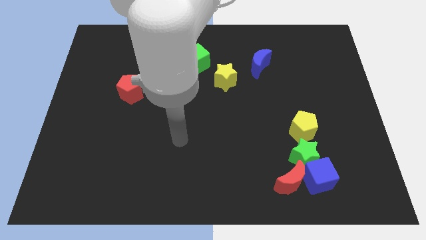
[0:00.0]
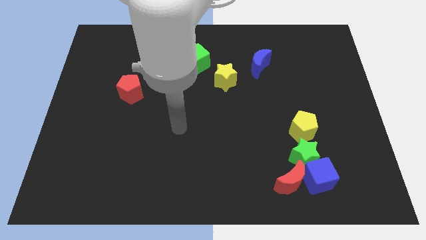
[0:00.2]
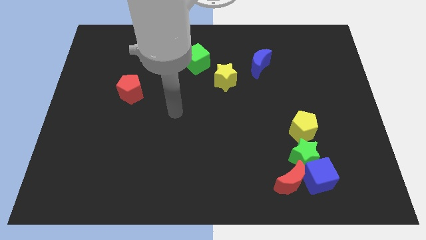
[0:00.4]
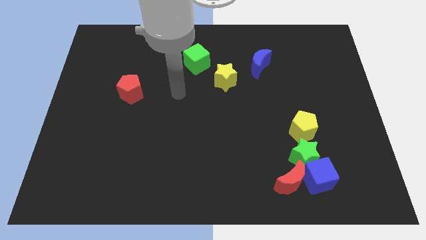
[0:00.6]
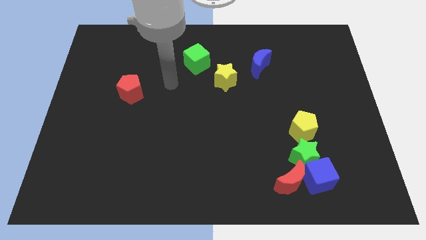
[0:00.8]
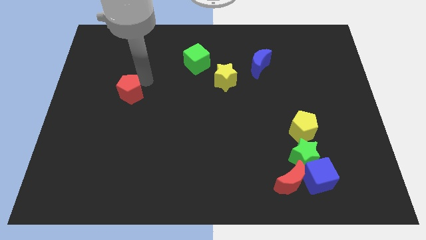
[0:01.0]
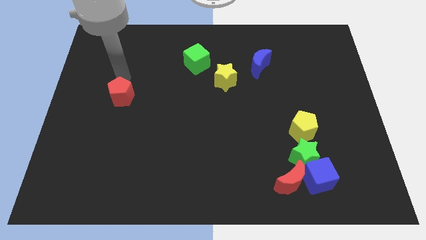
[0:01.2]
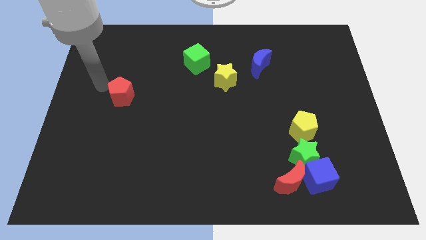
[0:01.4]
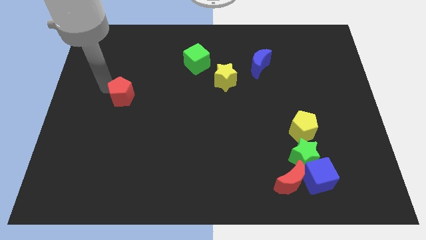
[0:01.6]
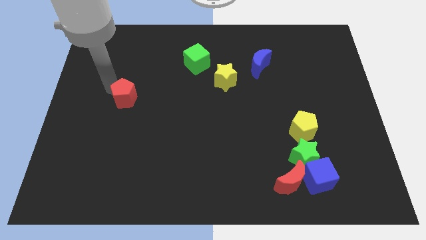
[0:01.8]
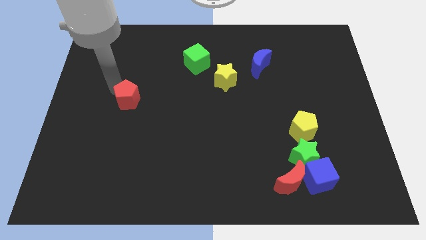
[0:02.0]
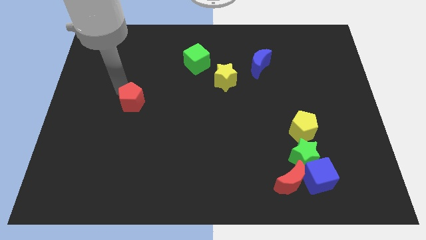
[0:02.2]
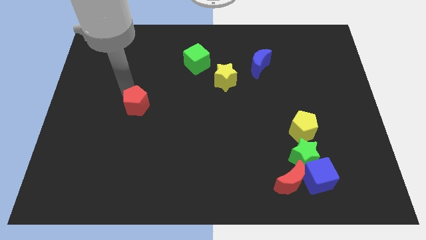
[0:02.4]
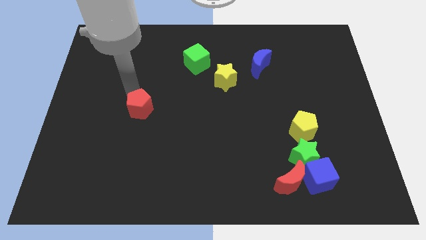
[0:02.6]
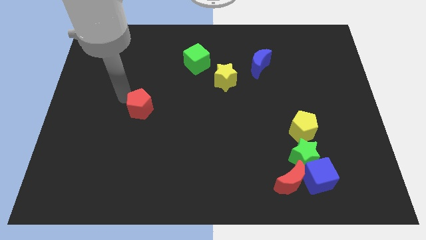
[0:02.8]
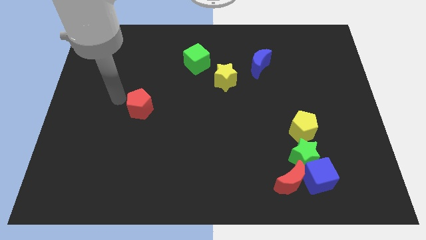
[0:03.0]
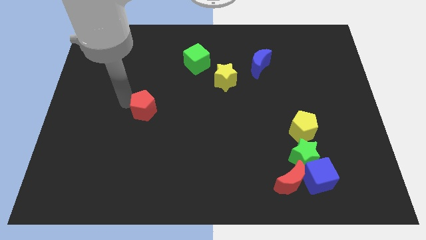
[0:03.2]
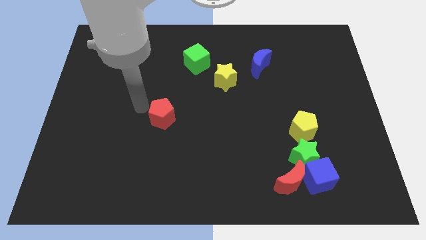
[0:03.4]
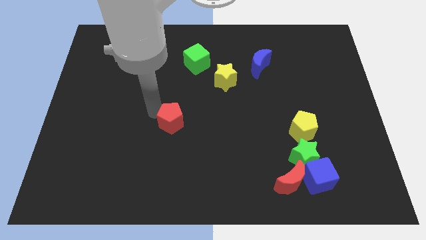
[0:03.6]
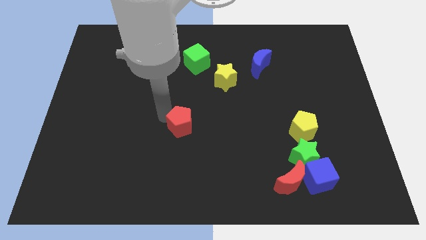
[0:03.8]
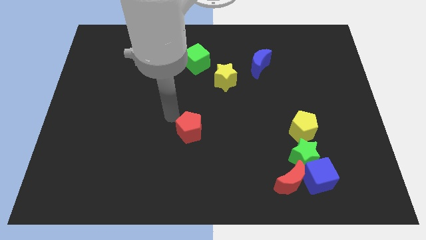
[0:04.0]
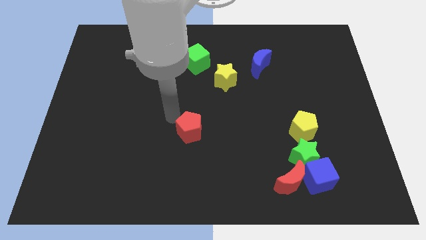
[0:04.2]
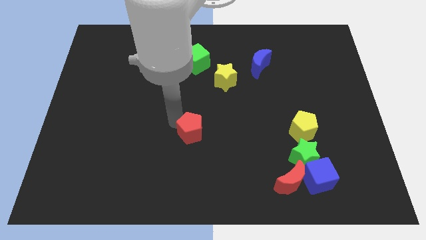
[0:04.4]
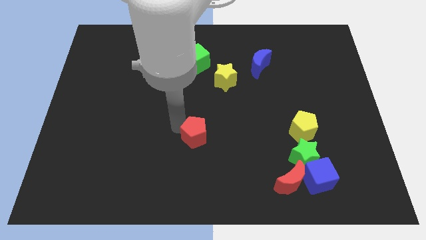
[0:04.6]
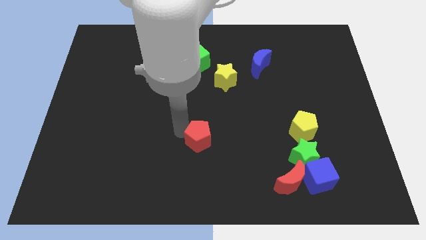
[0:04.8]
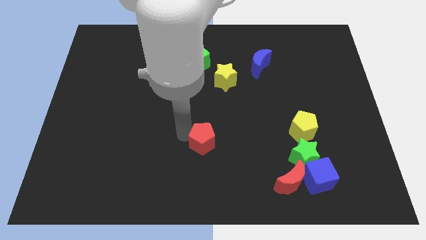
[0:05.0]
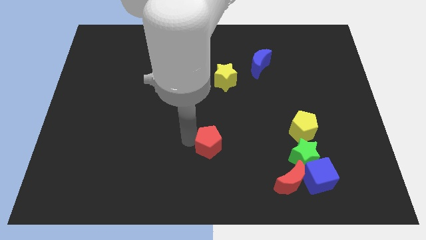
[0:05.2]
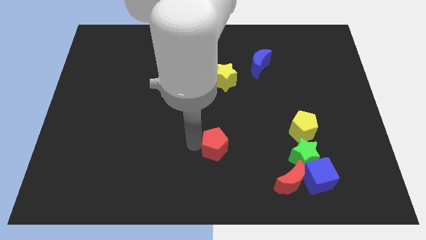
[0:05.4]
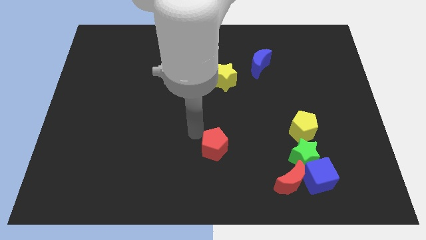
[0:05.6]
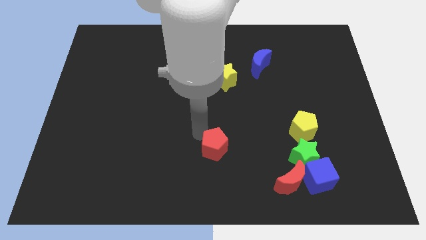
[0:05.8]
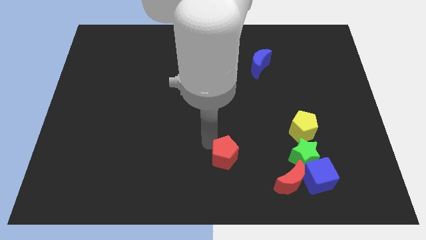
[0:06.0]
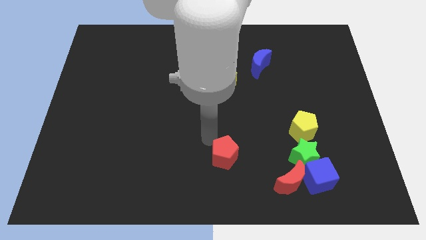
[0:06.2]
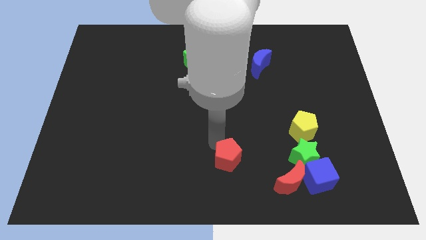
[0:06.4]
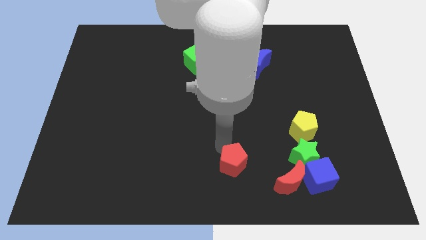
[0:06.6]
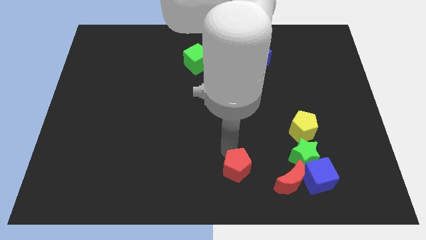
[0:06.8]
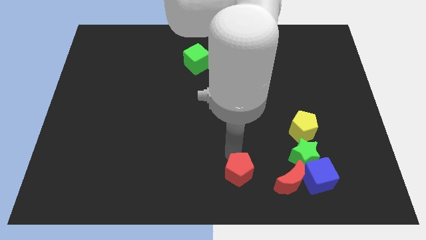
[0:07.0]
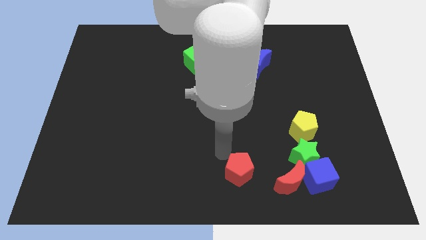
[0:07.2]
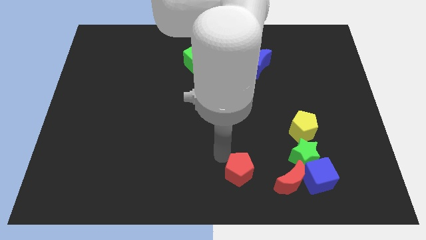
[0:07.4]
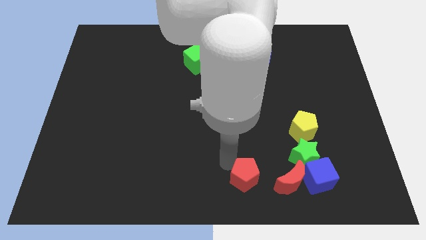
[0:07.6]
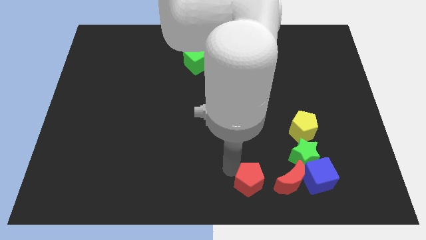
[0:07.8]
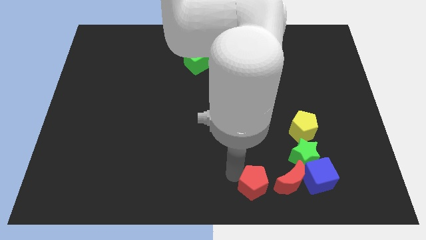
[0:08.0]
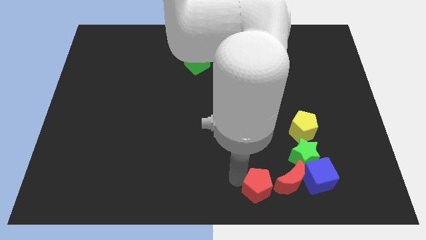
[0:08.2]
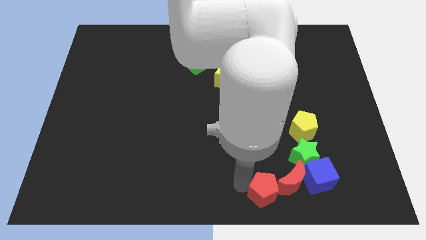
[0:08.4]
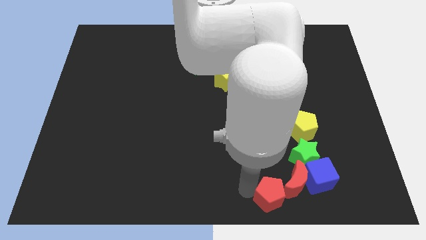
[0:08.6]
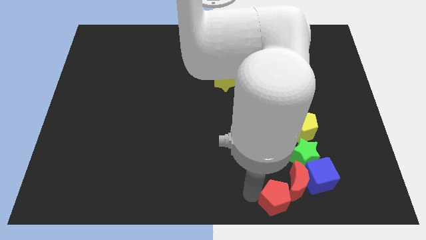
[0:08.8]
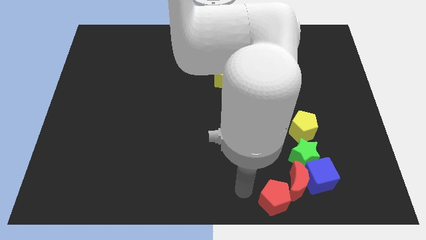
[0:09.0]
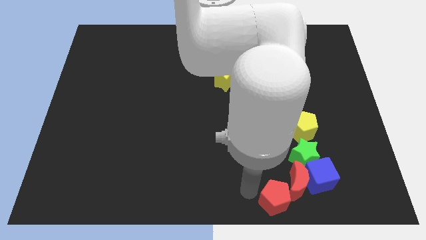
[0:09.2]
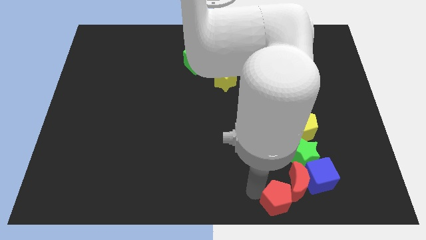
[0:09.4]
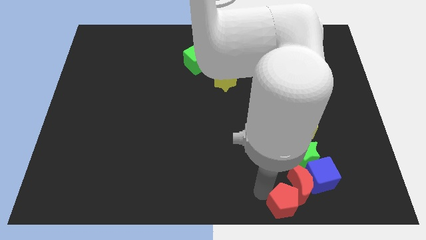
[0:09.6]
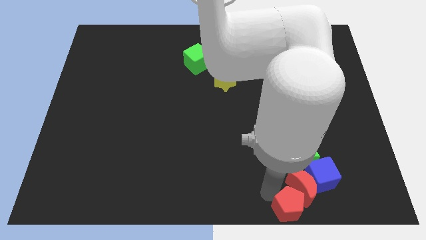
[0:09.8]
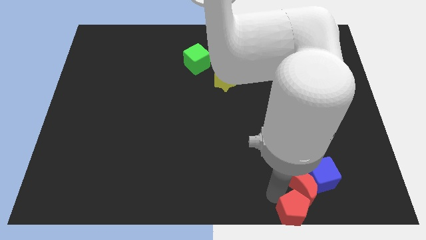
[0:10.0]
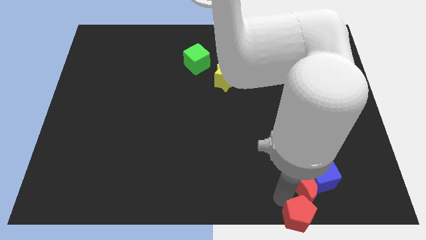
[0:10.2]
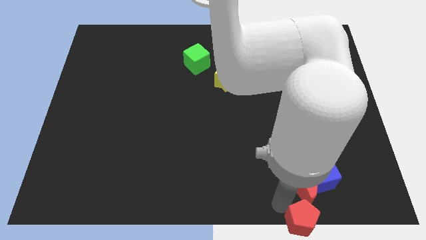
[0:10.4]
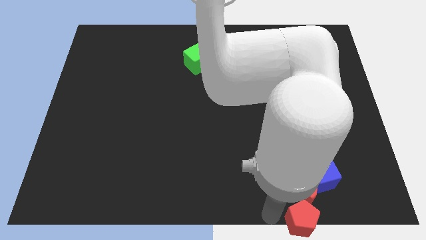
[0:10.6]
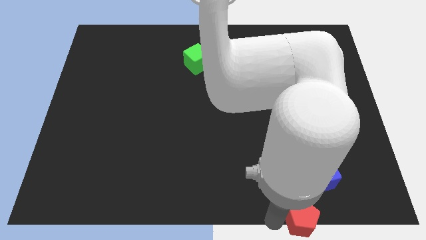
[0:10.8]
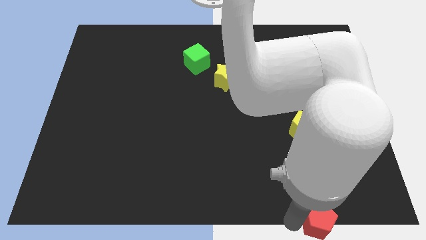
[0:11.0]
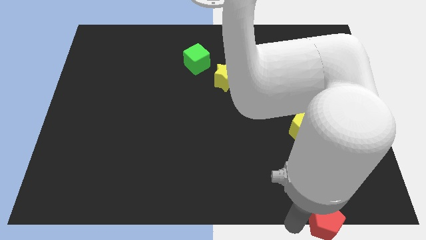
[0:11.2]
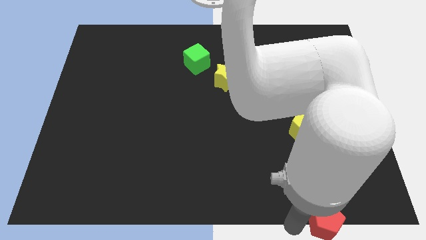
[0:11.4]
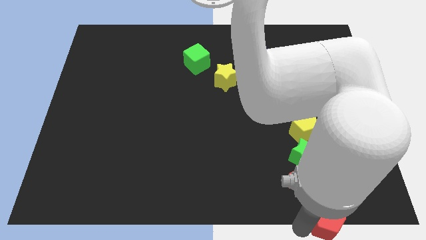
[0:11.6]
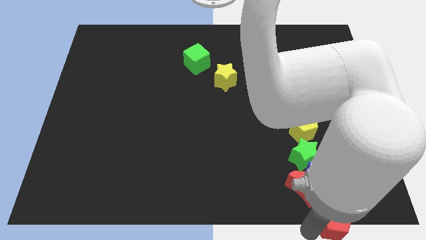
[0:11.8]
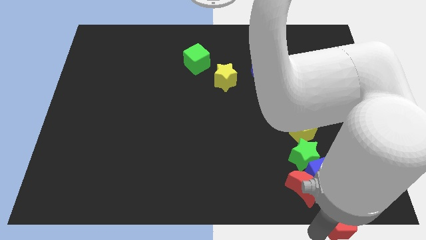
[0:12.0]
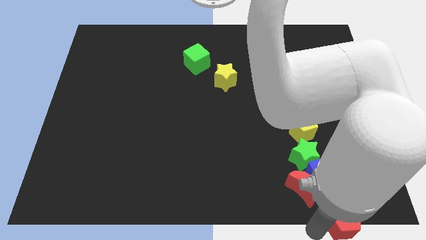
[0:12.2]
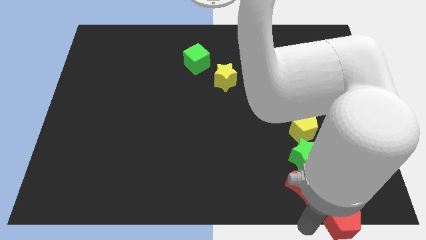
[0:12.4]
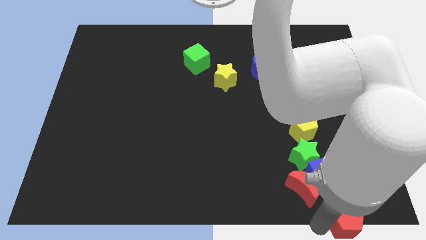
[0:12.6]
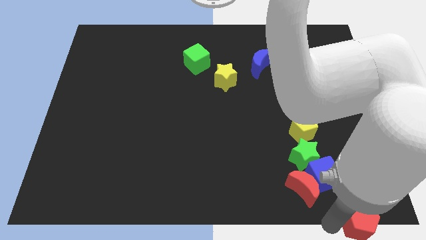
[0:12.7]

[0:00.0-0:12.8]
slide the red pentagon to the lower right corner
